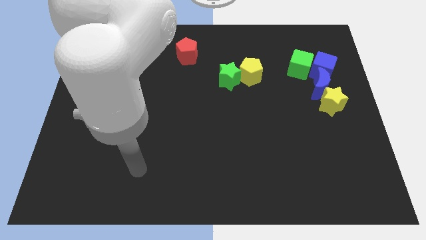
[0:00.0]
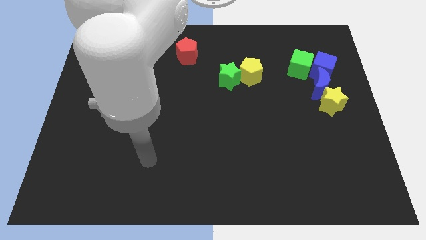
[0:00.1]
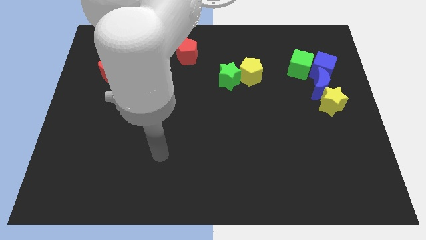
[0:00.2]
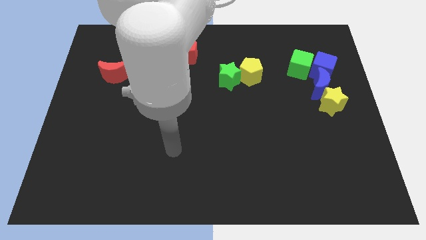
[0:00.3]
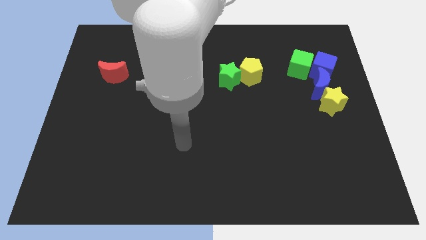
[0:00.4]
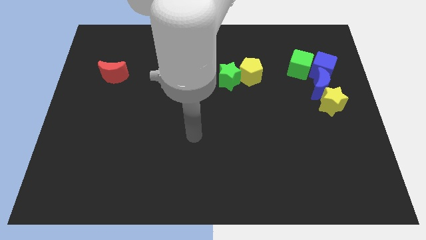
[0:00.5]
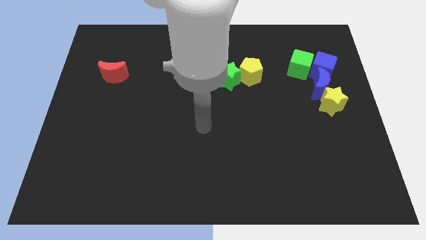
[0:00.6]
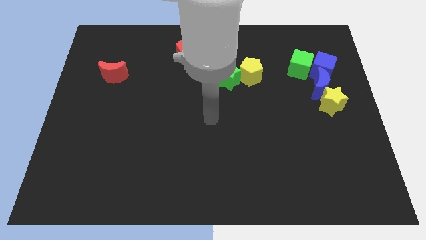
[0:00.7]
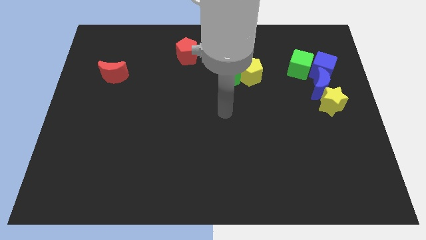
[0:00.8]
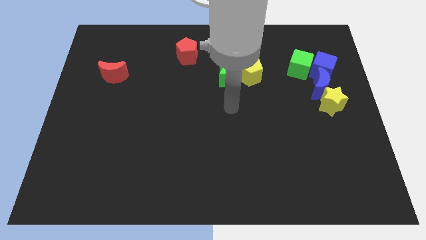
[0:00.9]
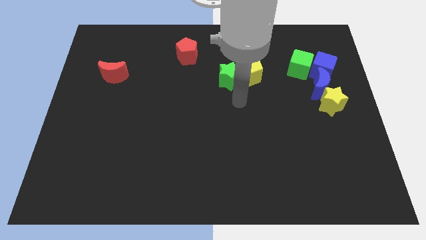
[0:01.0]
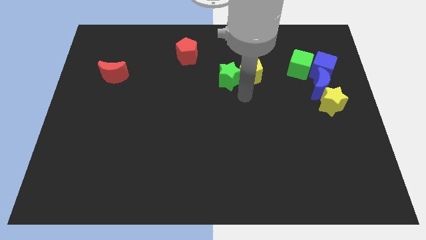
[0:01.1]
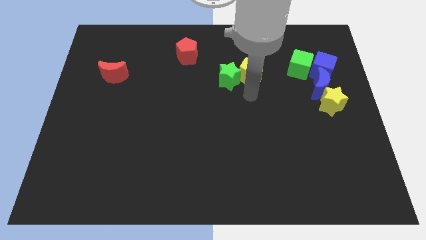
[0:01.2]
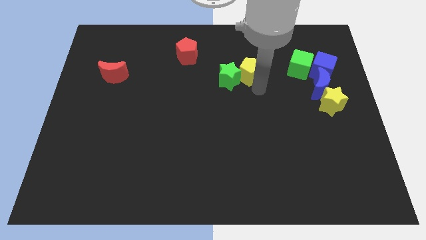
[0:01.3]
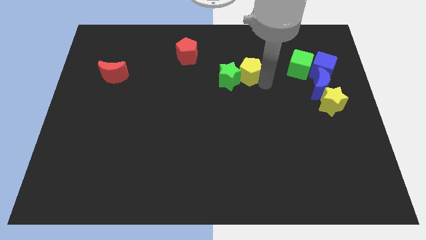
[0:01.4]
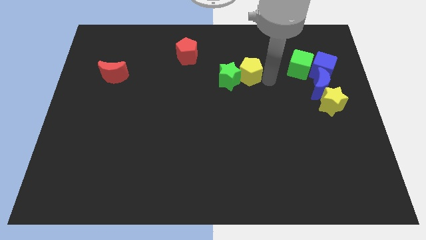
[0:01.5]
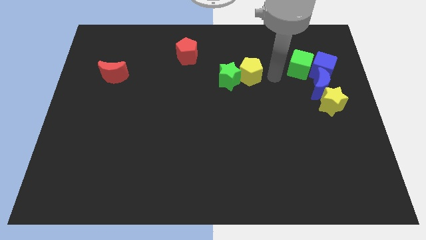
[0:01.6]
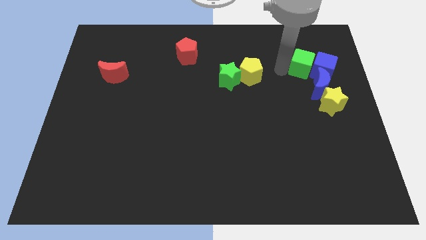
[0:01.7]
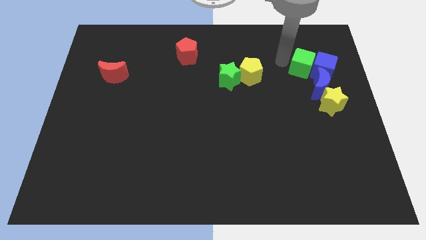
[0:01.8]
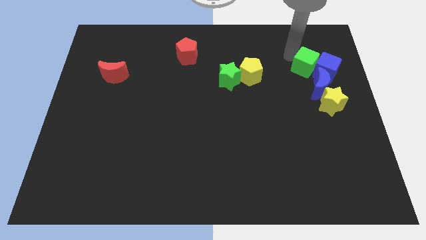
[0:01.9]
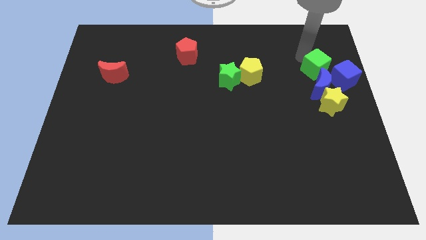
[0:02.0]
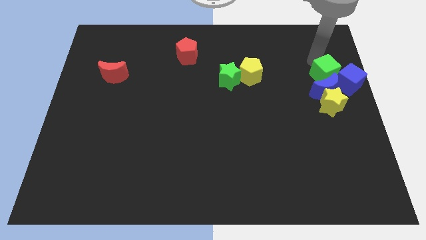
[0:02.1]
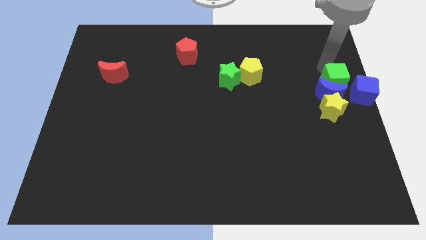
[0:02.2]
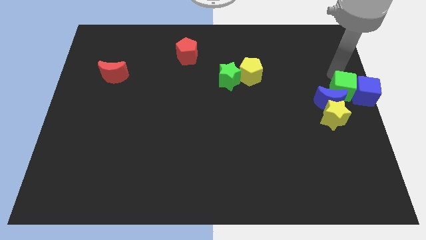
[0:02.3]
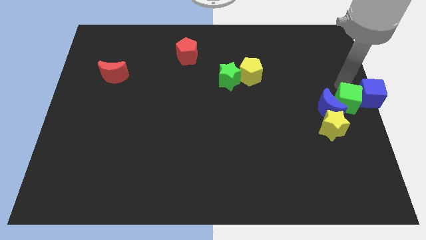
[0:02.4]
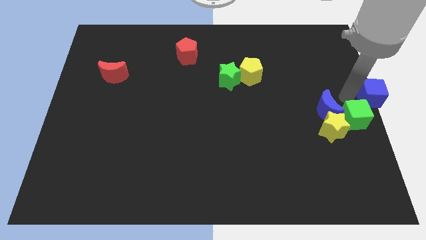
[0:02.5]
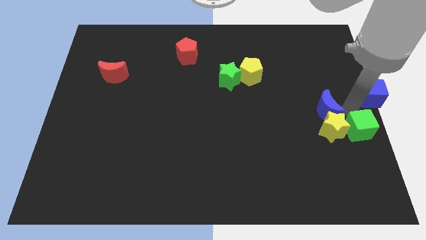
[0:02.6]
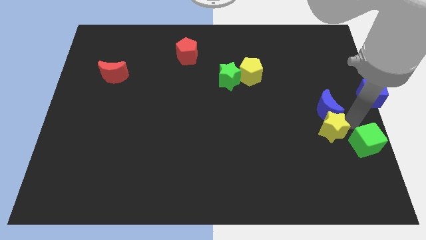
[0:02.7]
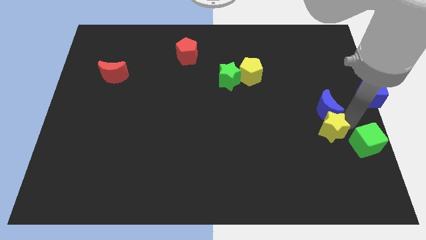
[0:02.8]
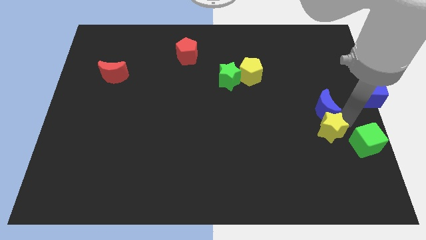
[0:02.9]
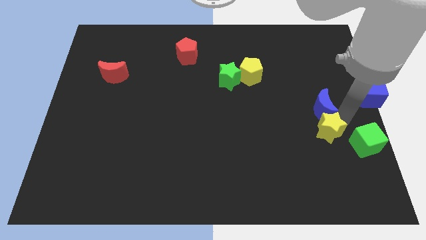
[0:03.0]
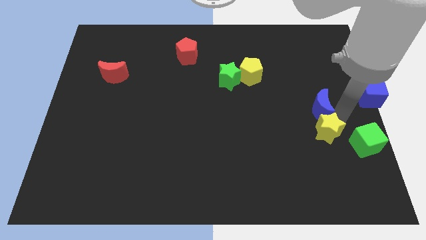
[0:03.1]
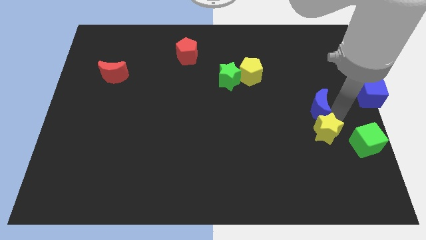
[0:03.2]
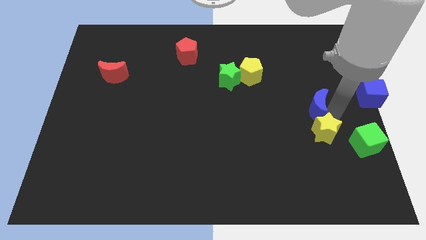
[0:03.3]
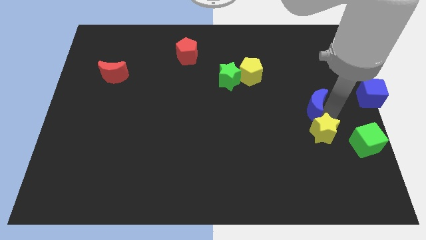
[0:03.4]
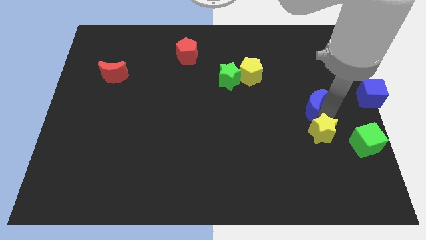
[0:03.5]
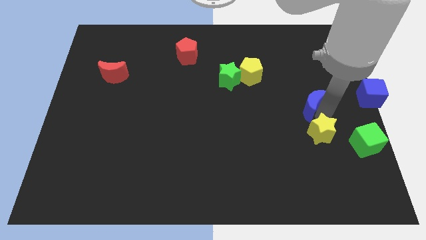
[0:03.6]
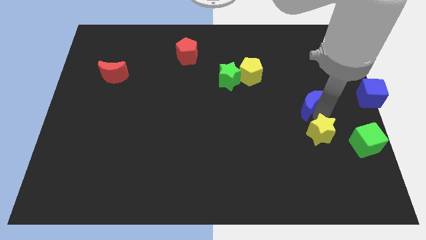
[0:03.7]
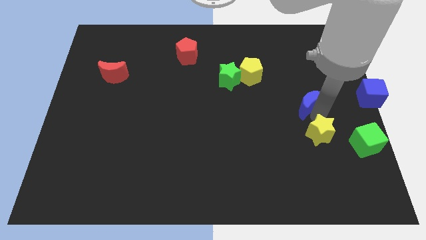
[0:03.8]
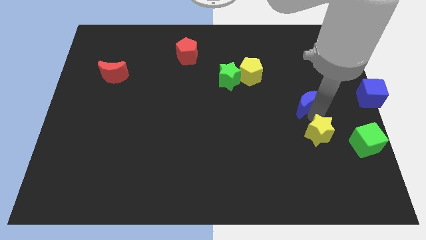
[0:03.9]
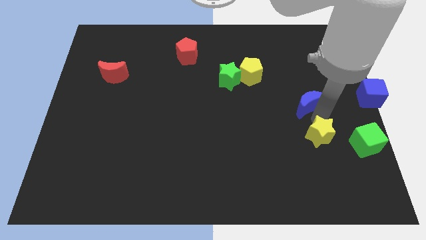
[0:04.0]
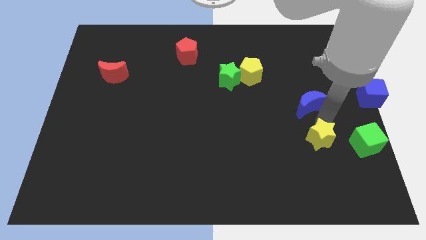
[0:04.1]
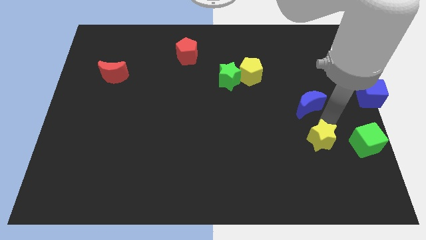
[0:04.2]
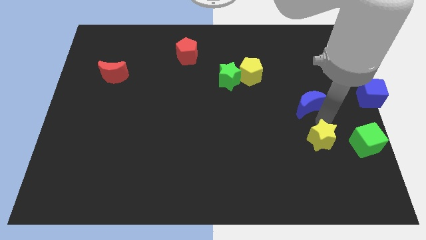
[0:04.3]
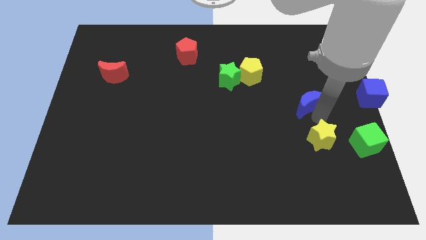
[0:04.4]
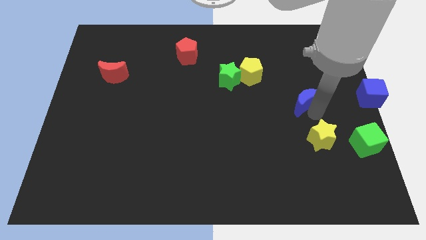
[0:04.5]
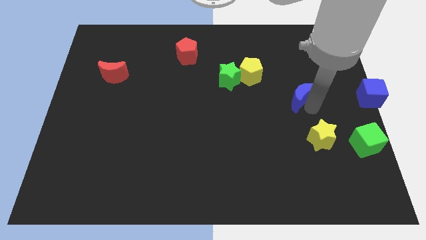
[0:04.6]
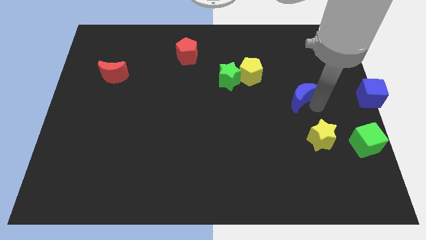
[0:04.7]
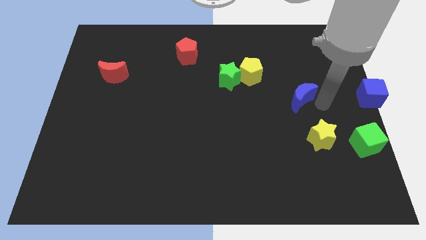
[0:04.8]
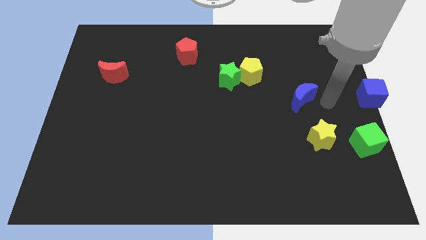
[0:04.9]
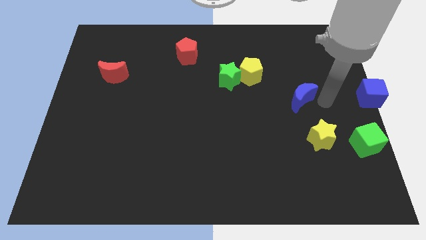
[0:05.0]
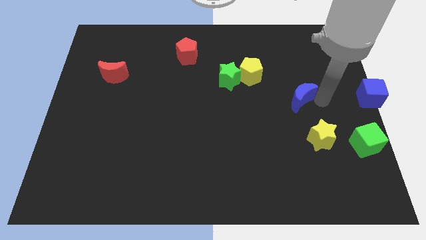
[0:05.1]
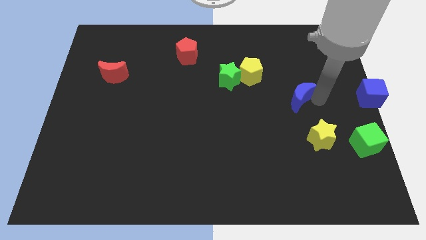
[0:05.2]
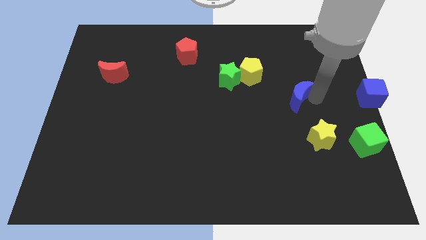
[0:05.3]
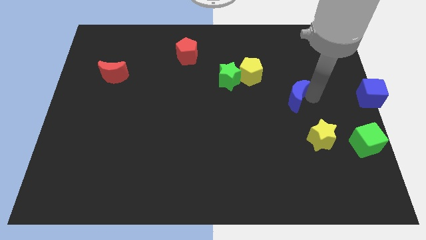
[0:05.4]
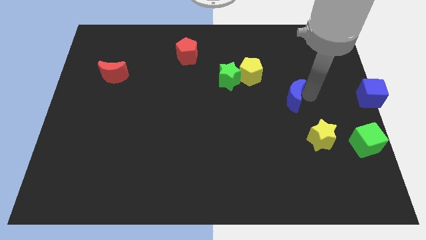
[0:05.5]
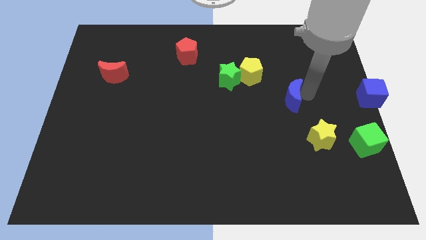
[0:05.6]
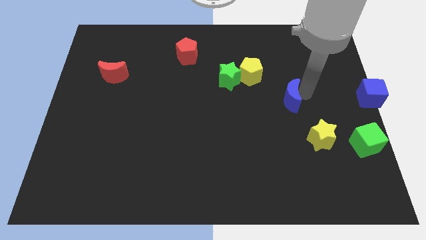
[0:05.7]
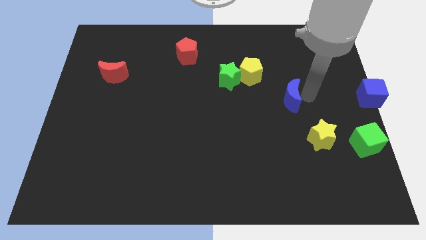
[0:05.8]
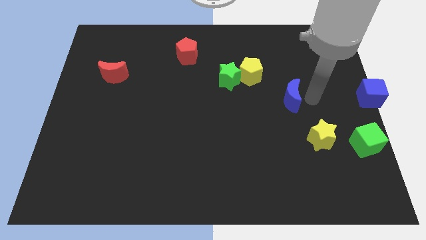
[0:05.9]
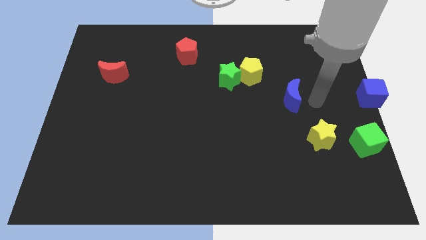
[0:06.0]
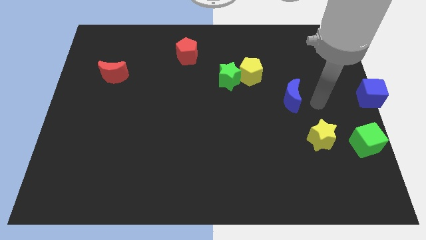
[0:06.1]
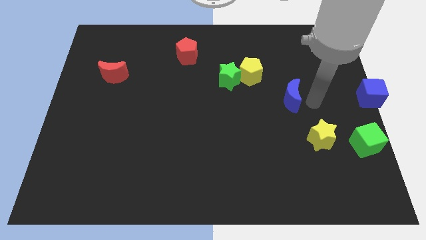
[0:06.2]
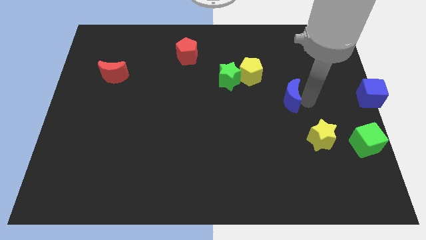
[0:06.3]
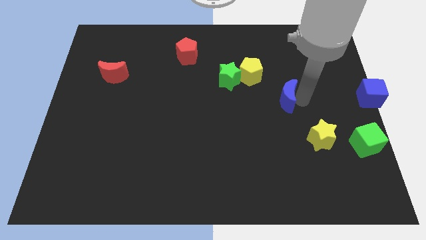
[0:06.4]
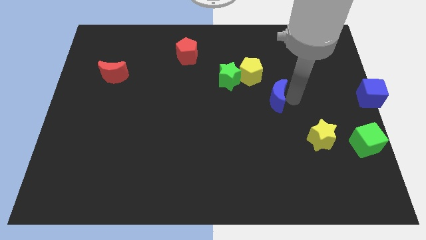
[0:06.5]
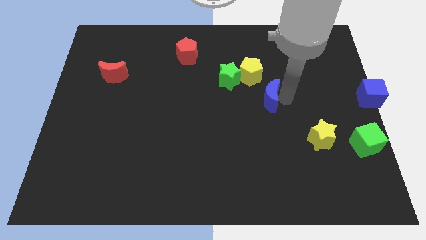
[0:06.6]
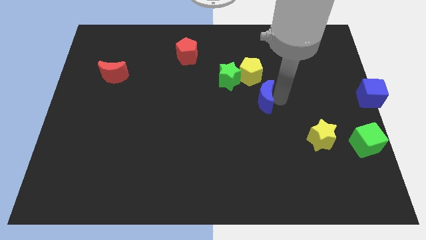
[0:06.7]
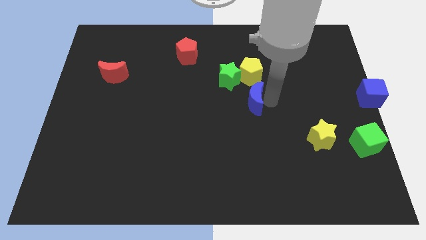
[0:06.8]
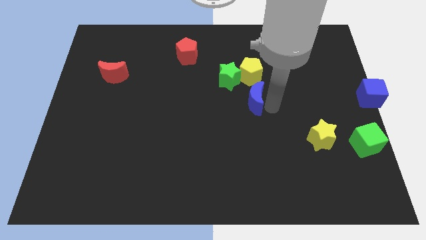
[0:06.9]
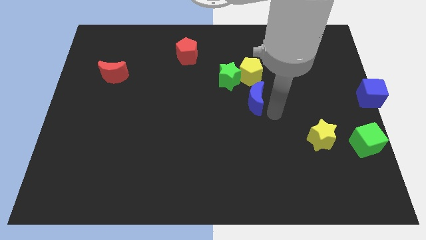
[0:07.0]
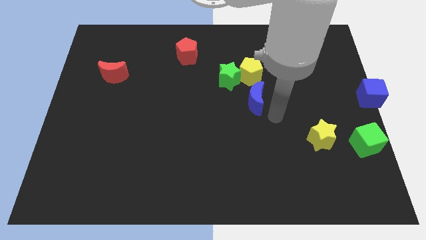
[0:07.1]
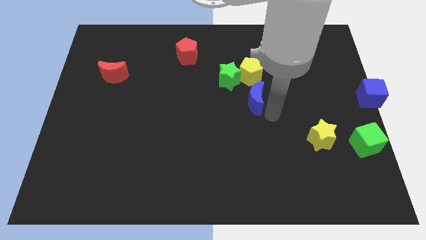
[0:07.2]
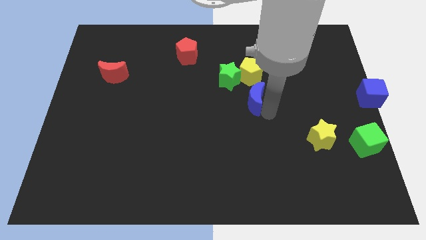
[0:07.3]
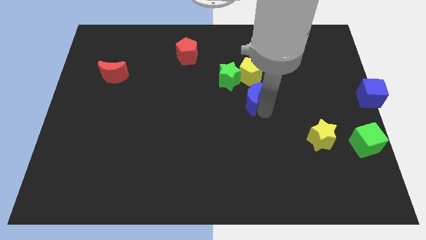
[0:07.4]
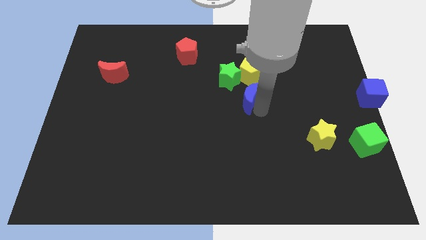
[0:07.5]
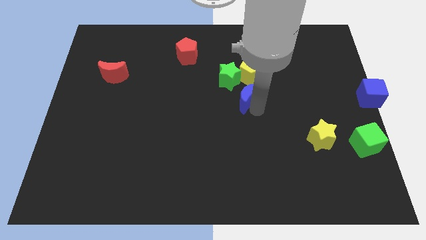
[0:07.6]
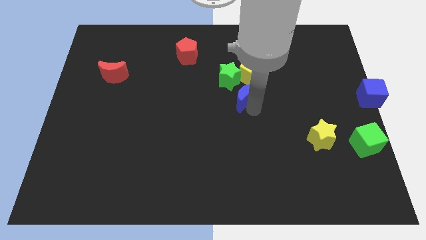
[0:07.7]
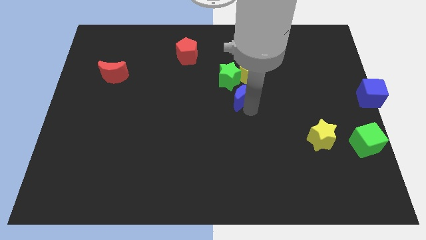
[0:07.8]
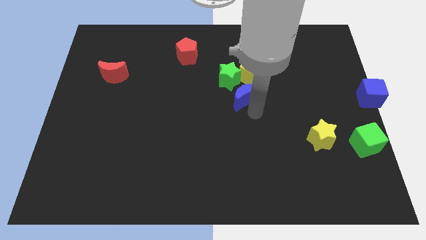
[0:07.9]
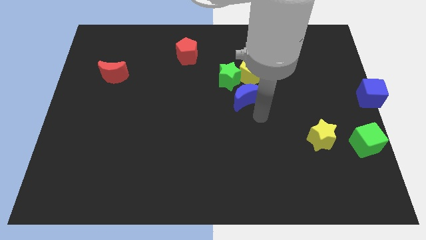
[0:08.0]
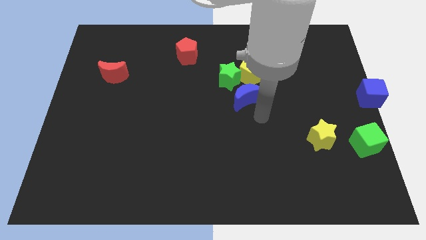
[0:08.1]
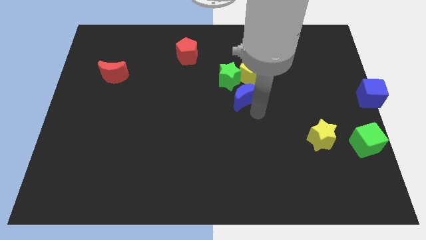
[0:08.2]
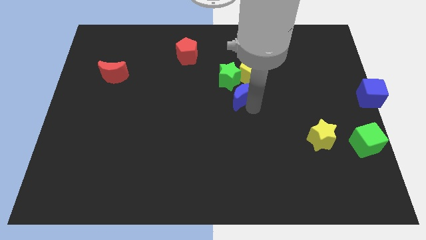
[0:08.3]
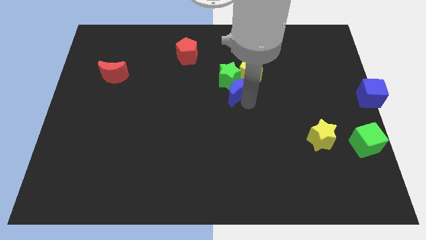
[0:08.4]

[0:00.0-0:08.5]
move the blue moon next to the green star
